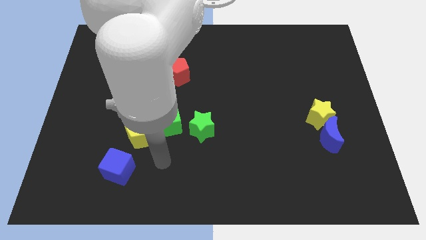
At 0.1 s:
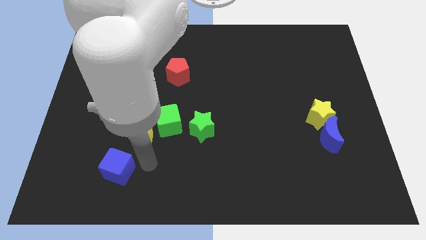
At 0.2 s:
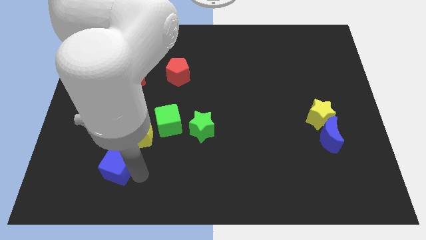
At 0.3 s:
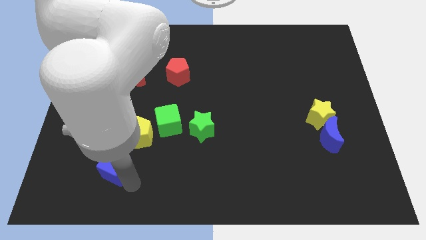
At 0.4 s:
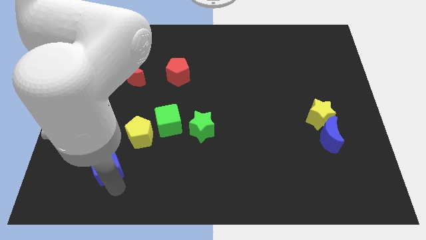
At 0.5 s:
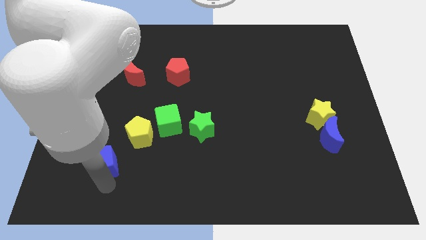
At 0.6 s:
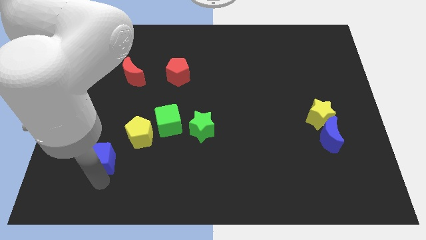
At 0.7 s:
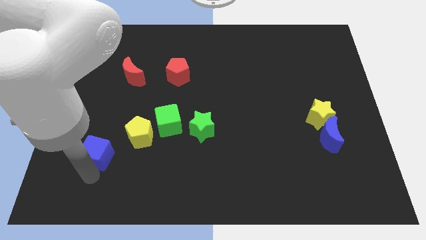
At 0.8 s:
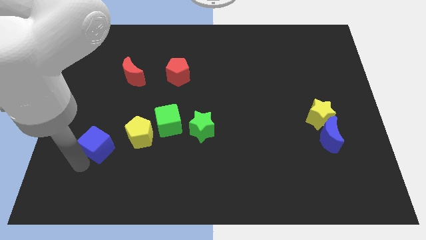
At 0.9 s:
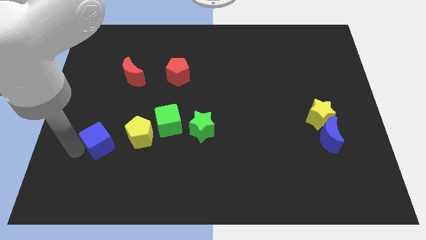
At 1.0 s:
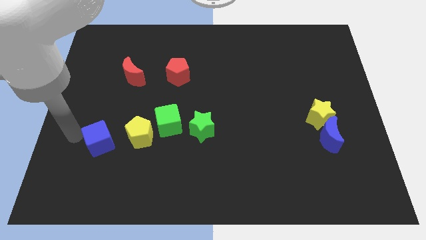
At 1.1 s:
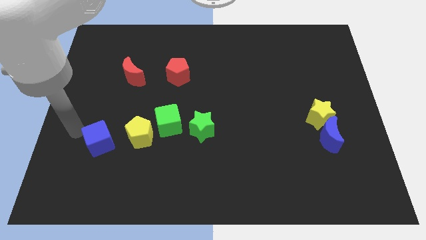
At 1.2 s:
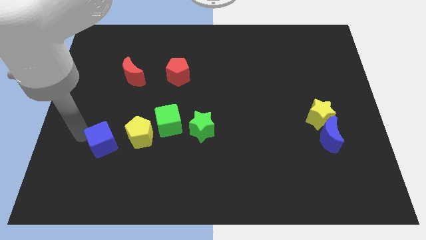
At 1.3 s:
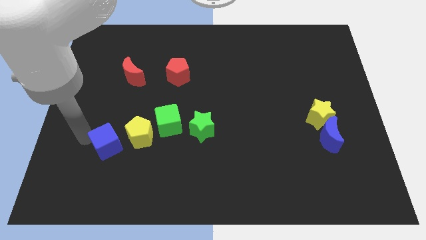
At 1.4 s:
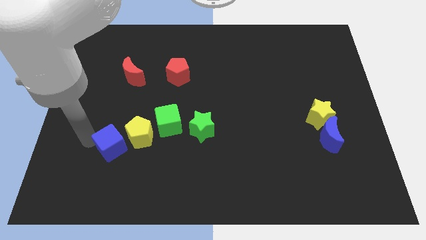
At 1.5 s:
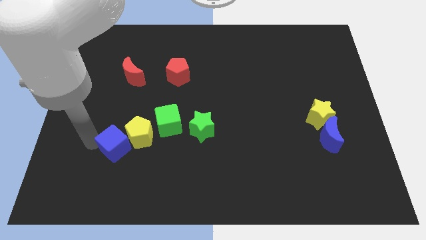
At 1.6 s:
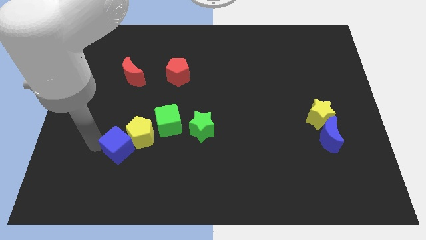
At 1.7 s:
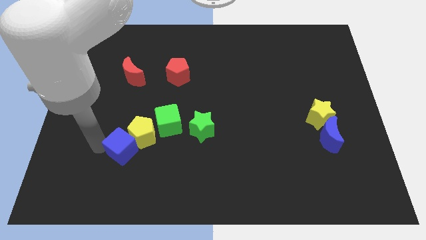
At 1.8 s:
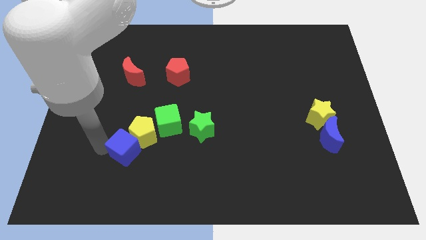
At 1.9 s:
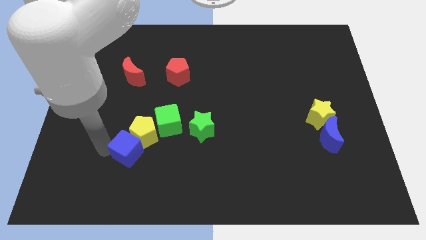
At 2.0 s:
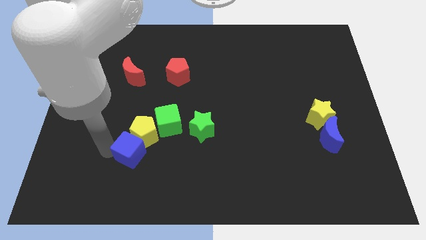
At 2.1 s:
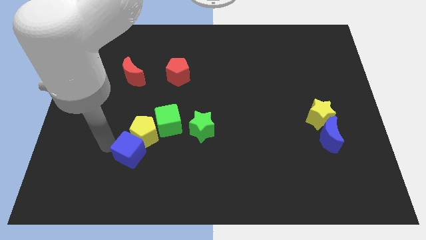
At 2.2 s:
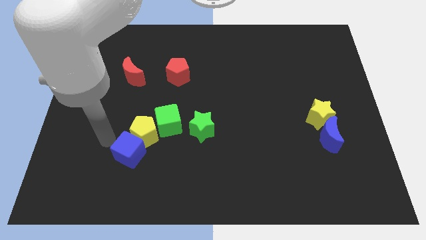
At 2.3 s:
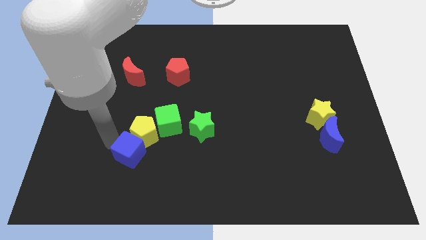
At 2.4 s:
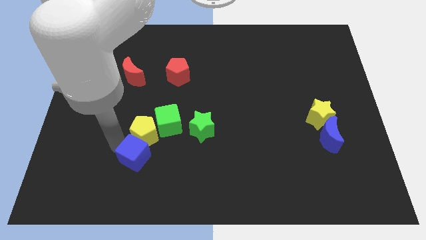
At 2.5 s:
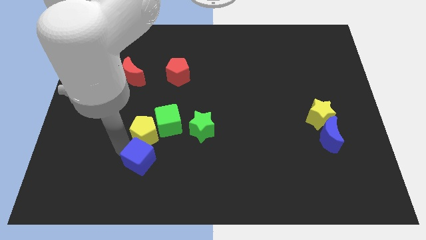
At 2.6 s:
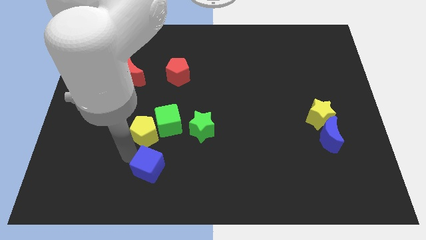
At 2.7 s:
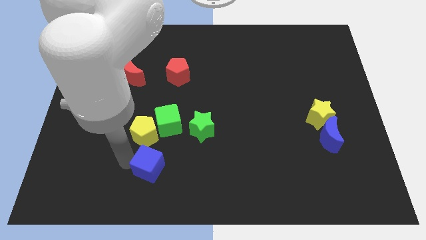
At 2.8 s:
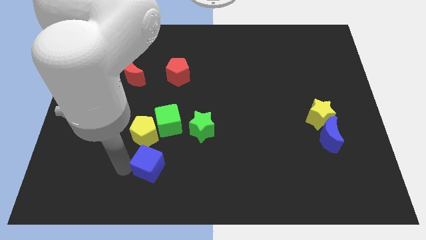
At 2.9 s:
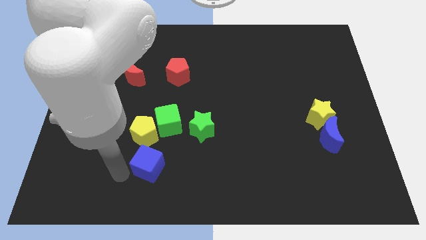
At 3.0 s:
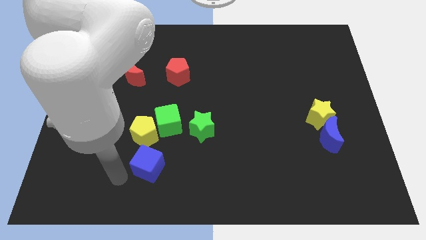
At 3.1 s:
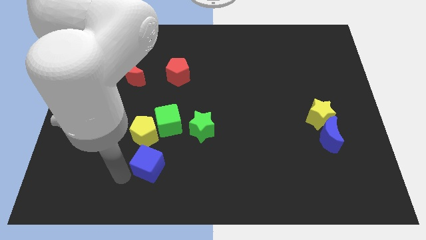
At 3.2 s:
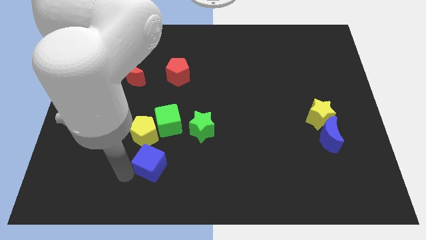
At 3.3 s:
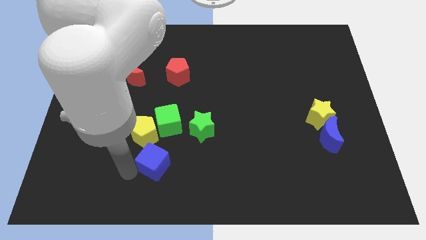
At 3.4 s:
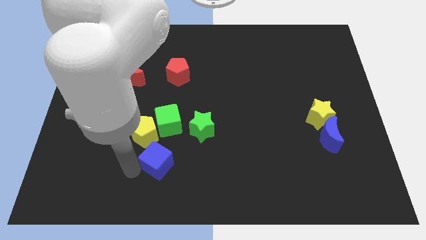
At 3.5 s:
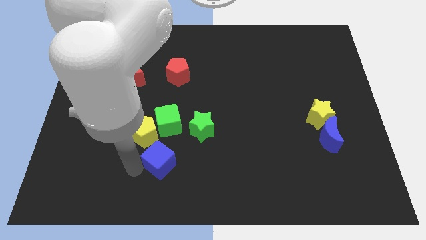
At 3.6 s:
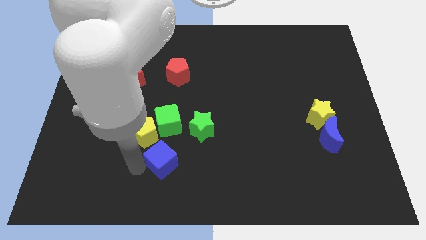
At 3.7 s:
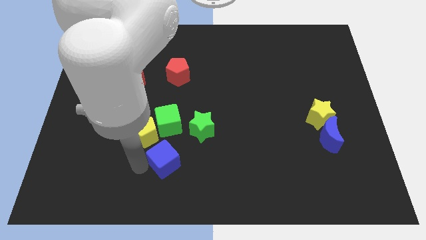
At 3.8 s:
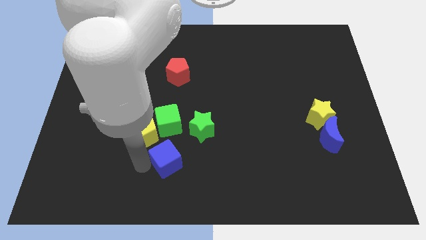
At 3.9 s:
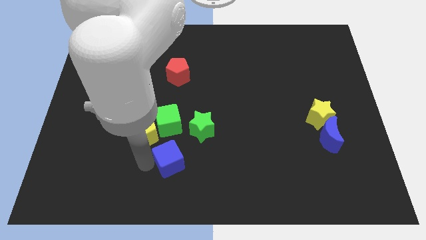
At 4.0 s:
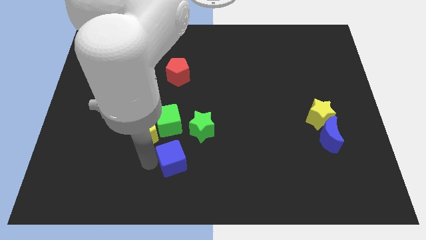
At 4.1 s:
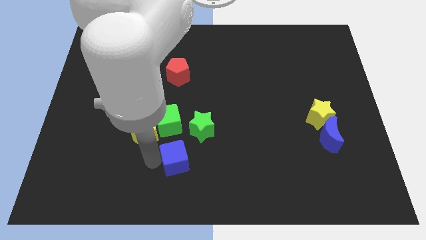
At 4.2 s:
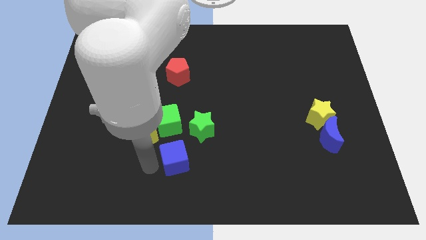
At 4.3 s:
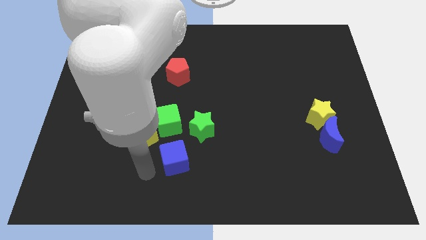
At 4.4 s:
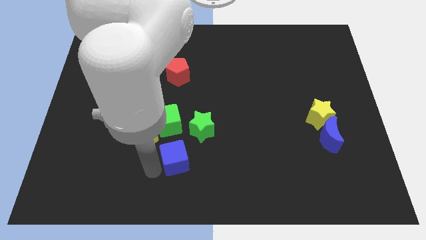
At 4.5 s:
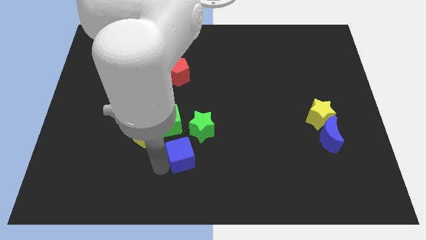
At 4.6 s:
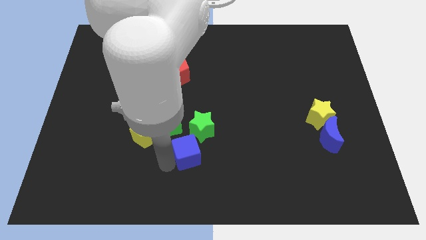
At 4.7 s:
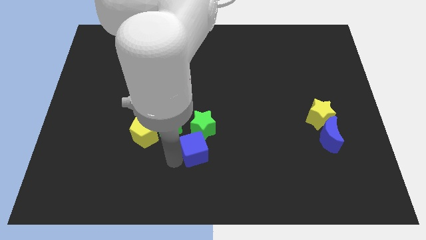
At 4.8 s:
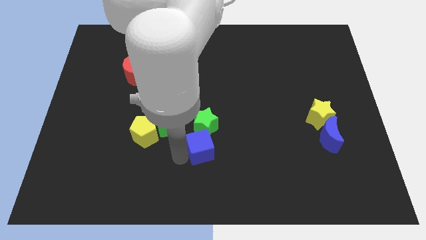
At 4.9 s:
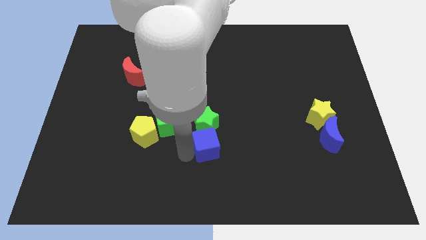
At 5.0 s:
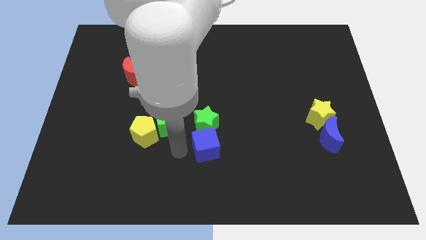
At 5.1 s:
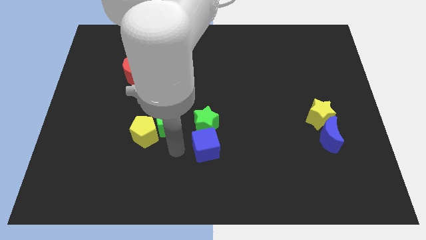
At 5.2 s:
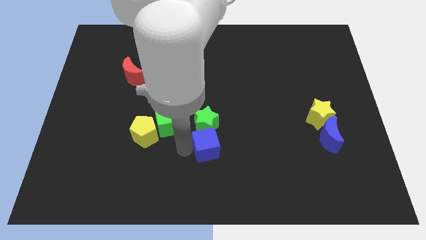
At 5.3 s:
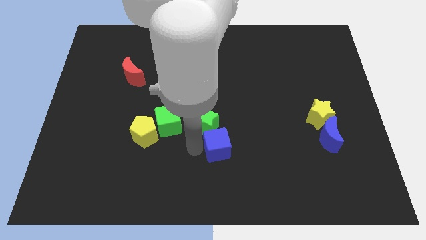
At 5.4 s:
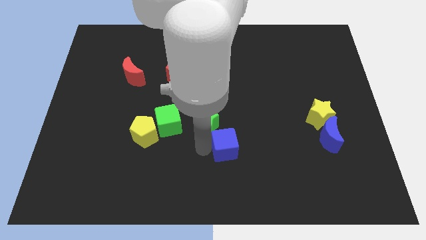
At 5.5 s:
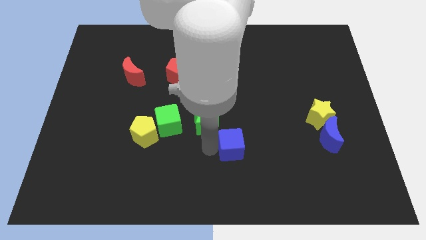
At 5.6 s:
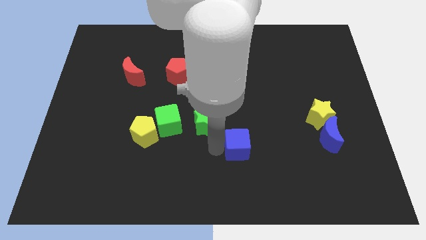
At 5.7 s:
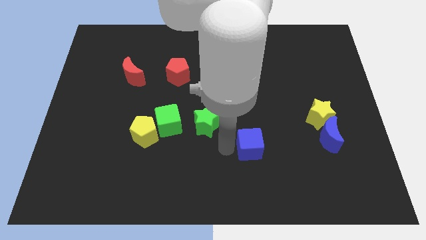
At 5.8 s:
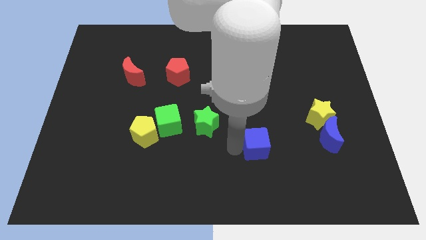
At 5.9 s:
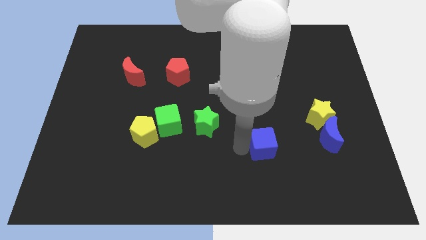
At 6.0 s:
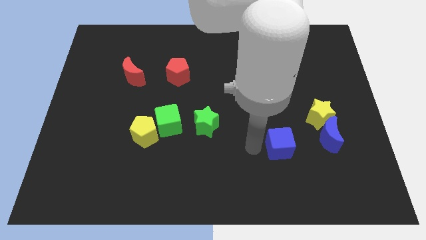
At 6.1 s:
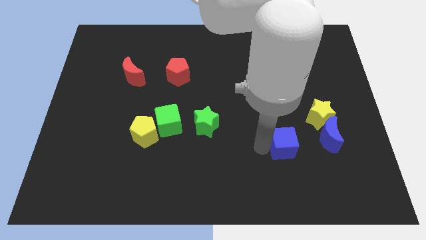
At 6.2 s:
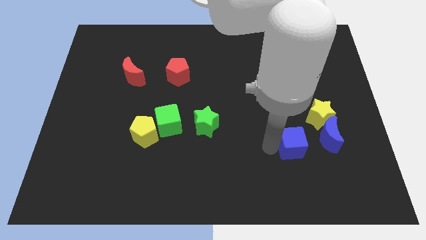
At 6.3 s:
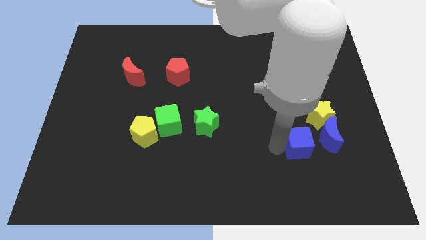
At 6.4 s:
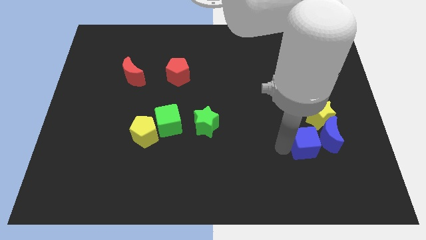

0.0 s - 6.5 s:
push the blue cube close to the blue moon

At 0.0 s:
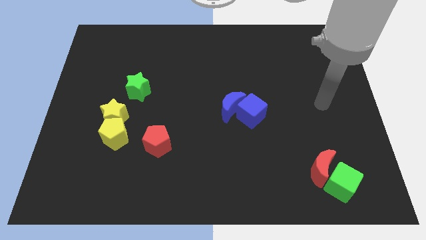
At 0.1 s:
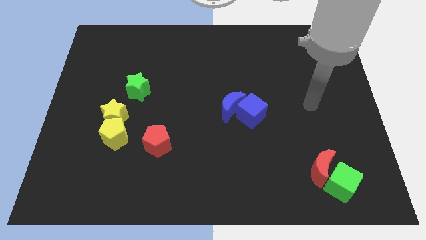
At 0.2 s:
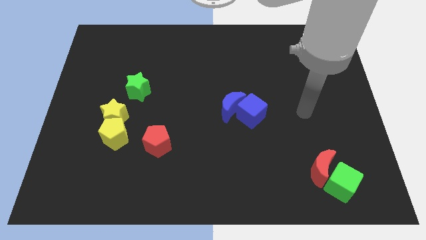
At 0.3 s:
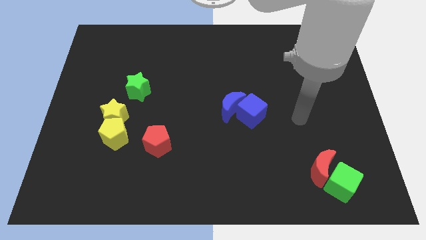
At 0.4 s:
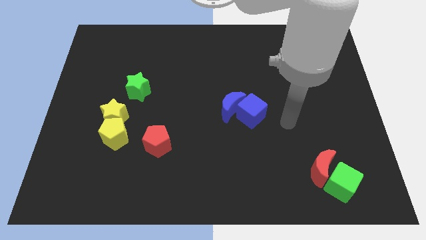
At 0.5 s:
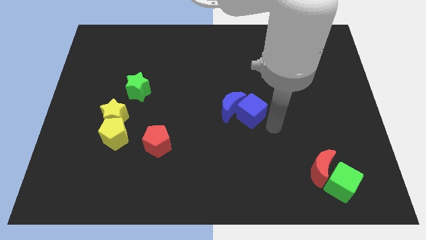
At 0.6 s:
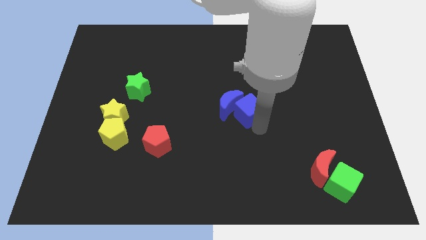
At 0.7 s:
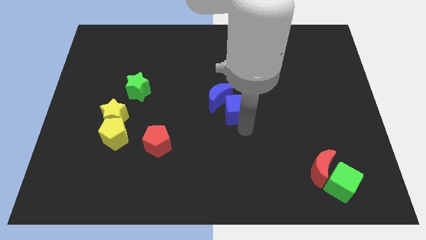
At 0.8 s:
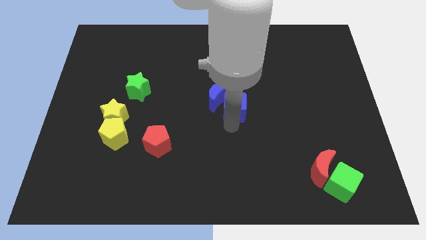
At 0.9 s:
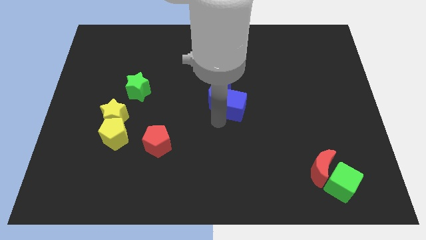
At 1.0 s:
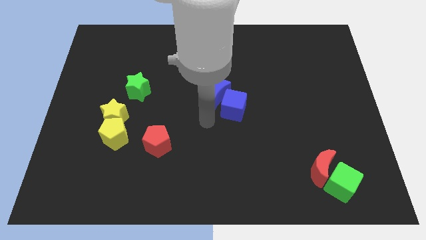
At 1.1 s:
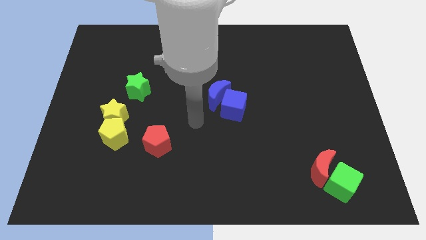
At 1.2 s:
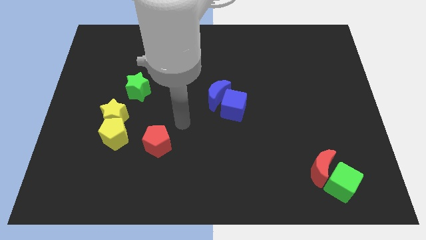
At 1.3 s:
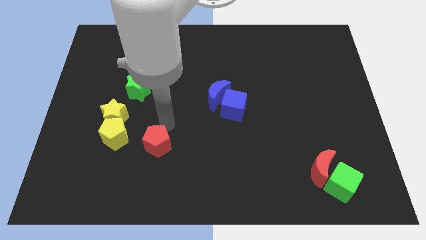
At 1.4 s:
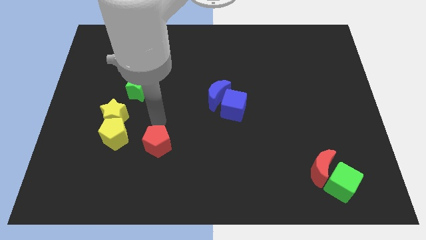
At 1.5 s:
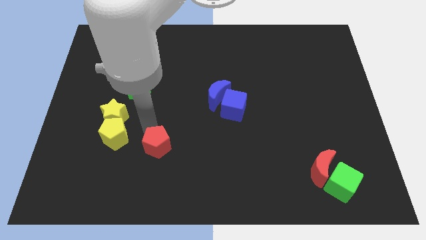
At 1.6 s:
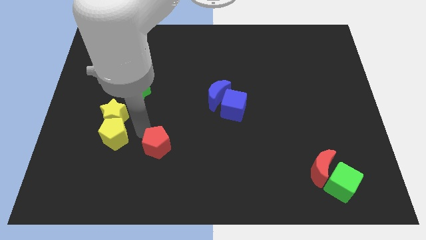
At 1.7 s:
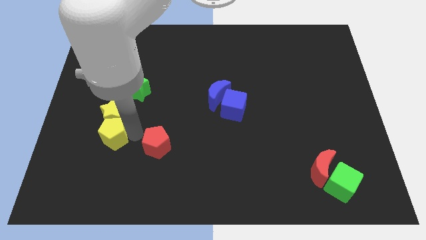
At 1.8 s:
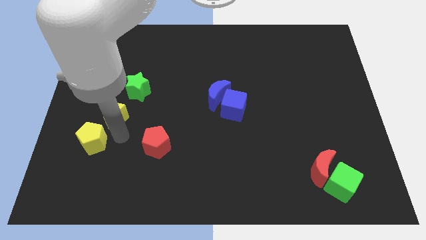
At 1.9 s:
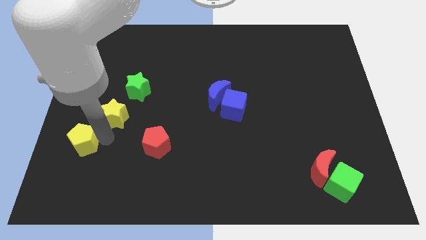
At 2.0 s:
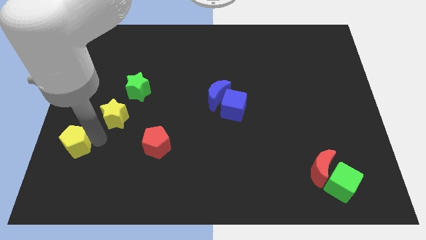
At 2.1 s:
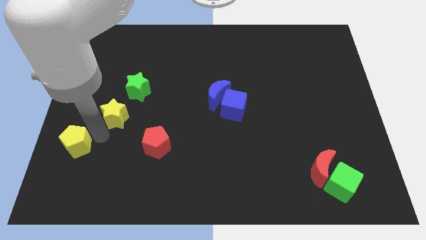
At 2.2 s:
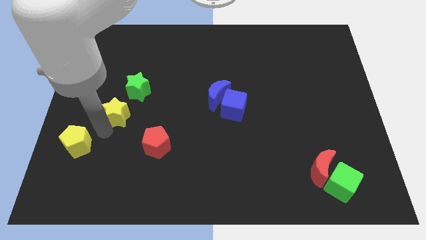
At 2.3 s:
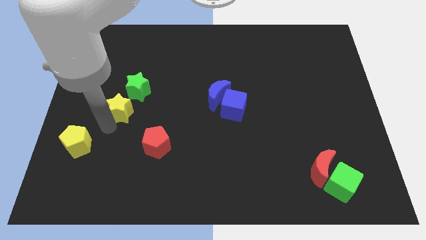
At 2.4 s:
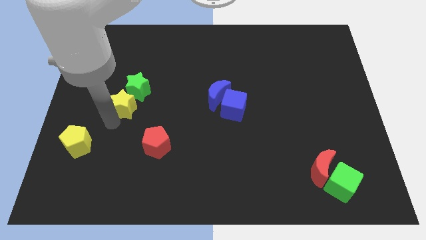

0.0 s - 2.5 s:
move the yellow star towards the green star
